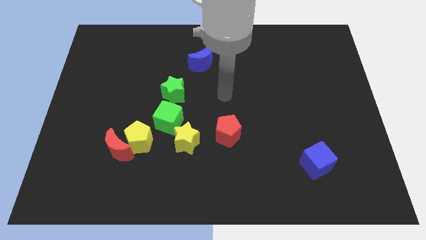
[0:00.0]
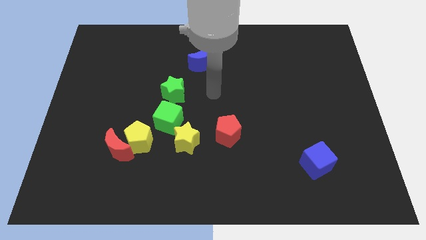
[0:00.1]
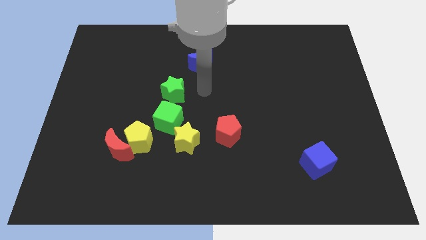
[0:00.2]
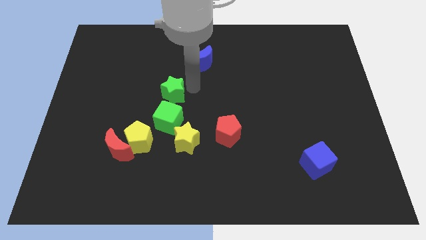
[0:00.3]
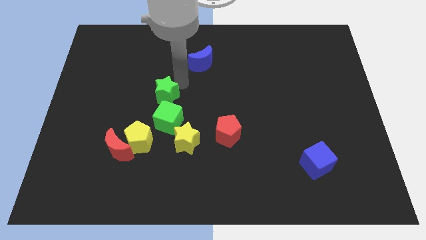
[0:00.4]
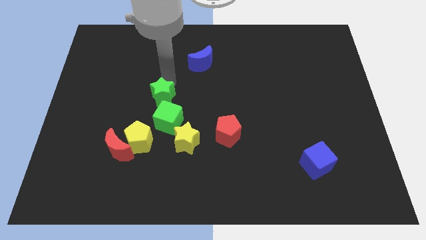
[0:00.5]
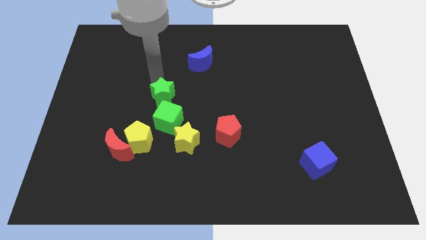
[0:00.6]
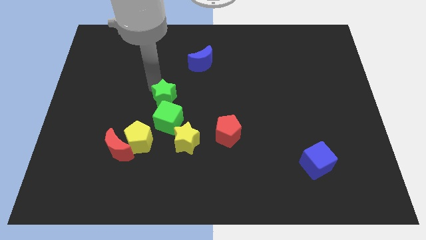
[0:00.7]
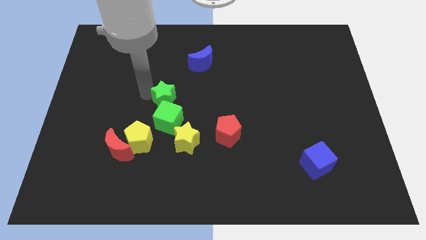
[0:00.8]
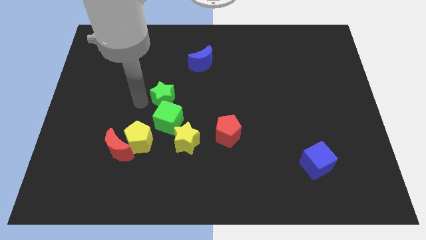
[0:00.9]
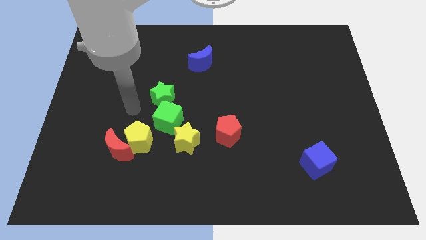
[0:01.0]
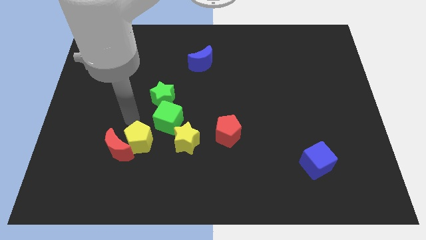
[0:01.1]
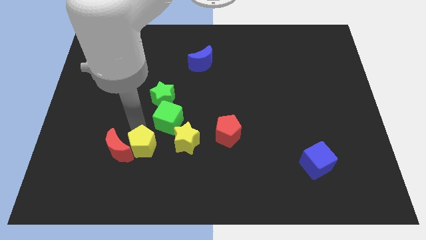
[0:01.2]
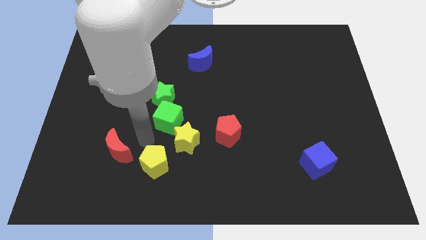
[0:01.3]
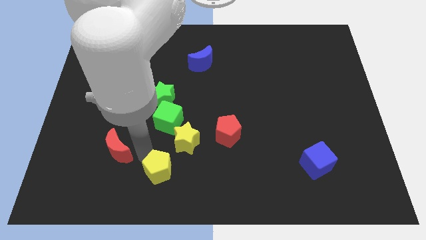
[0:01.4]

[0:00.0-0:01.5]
separate the red moon from the yellow pentagon

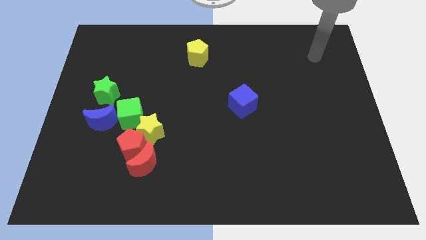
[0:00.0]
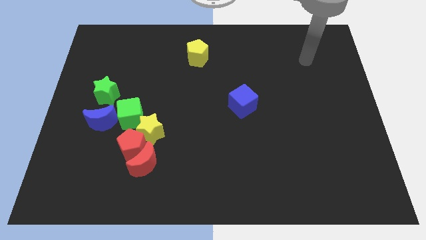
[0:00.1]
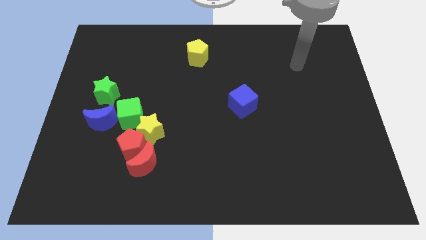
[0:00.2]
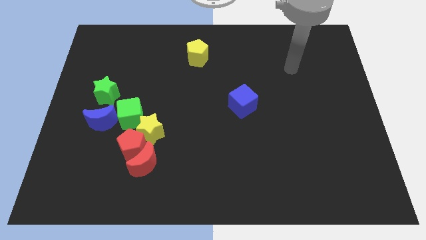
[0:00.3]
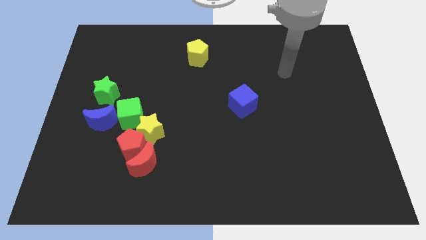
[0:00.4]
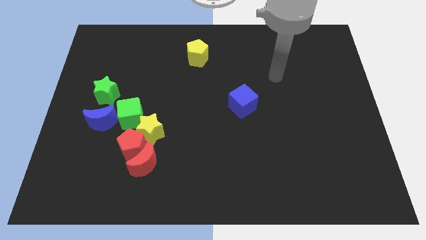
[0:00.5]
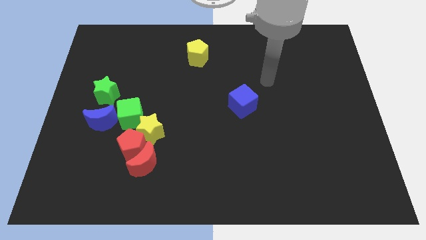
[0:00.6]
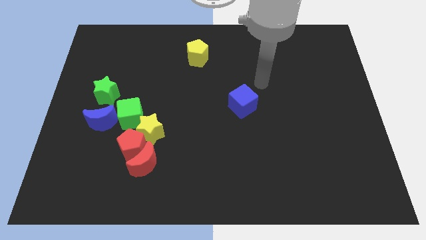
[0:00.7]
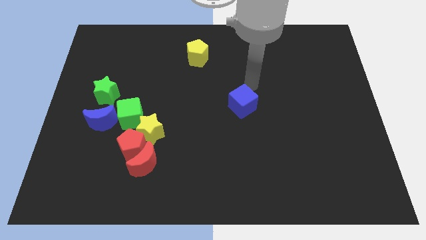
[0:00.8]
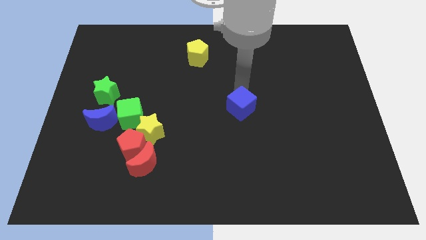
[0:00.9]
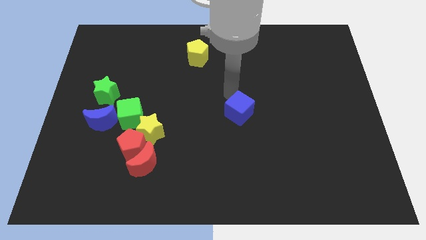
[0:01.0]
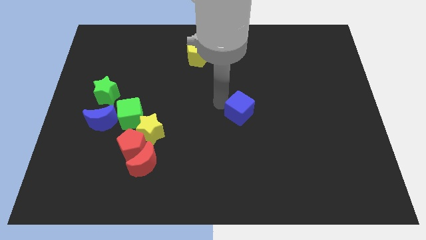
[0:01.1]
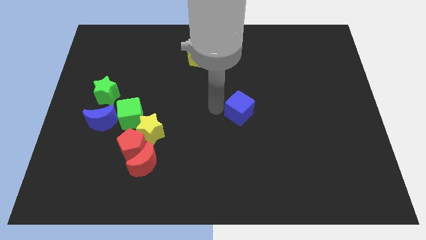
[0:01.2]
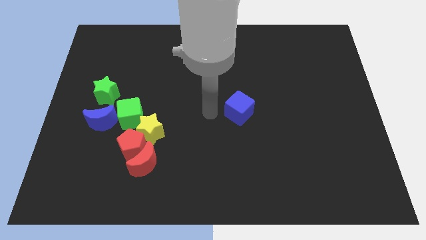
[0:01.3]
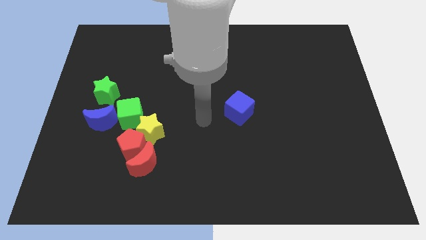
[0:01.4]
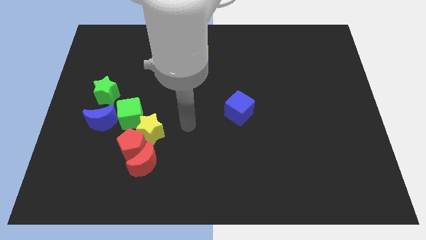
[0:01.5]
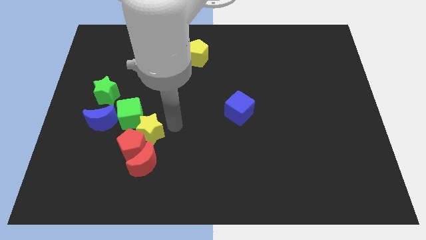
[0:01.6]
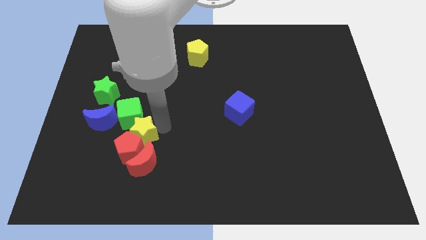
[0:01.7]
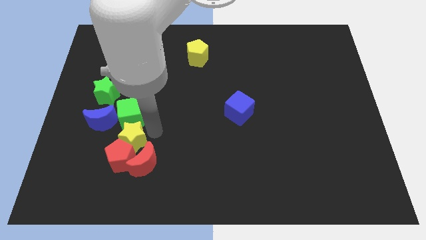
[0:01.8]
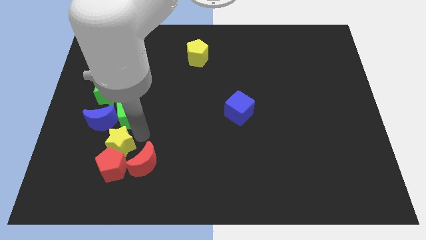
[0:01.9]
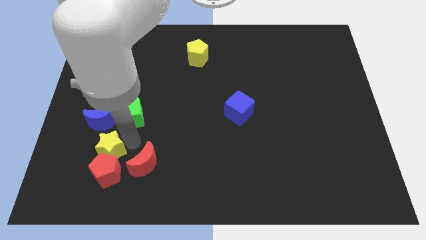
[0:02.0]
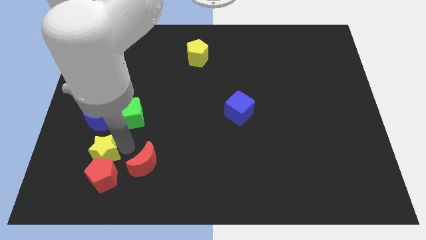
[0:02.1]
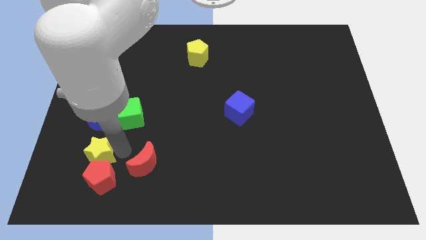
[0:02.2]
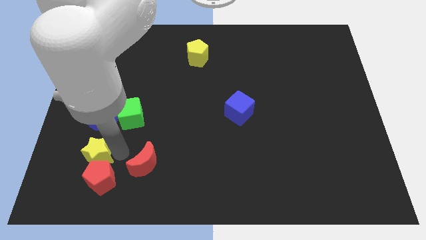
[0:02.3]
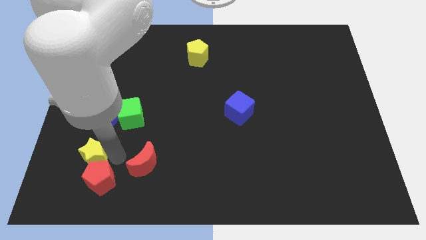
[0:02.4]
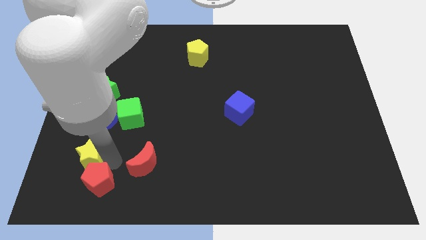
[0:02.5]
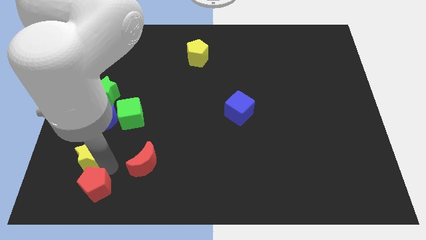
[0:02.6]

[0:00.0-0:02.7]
separate the red pentagon from the group of blocks

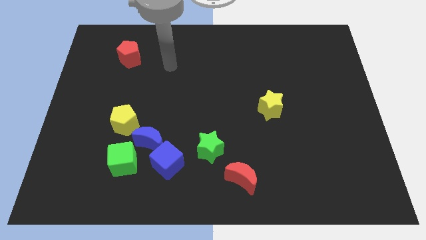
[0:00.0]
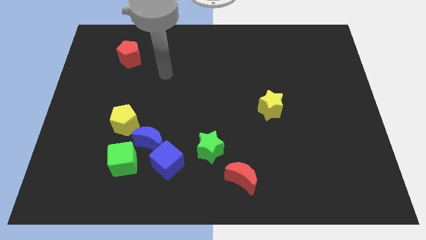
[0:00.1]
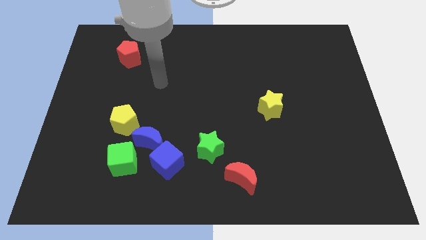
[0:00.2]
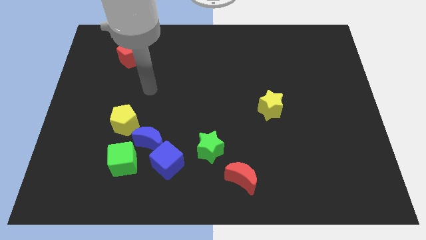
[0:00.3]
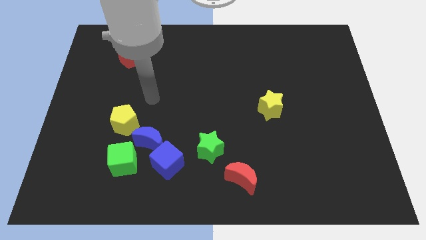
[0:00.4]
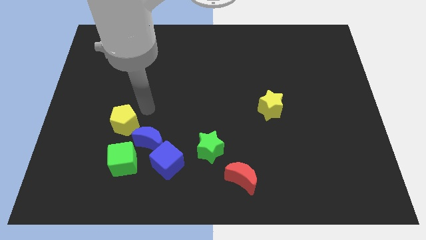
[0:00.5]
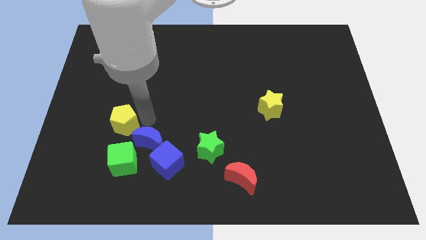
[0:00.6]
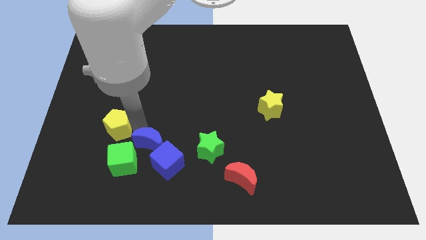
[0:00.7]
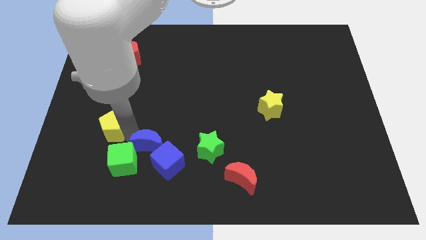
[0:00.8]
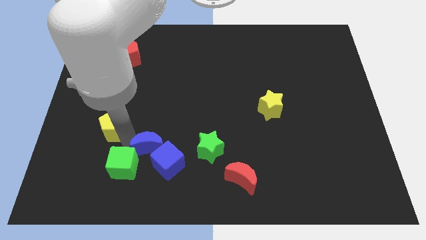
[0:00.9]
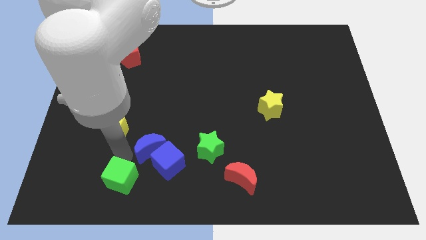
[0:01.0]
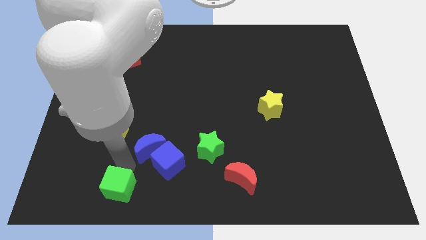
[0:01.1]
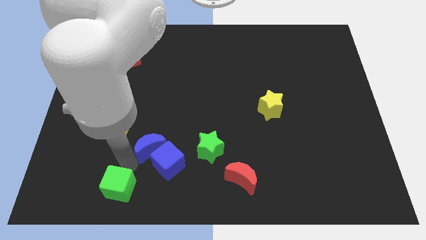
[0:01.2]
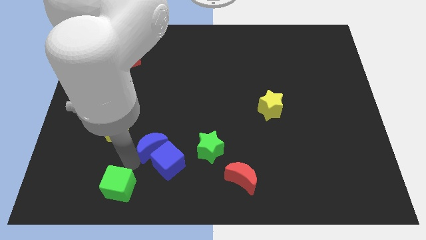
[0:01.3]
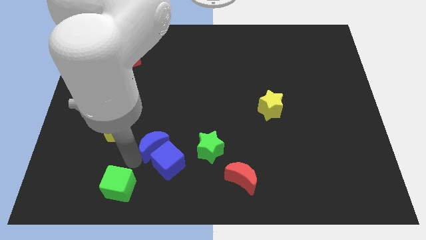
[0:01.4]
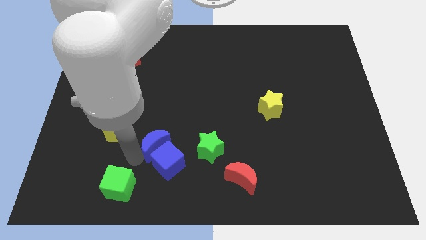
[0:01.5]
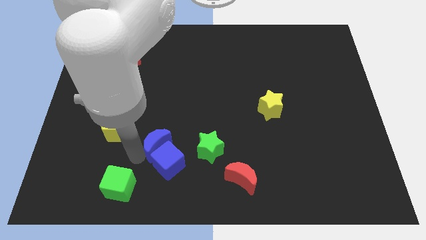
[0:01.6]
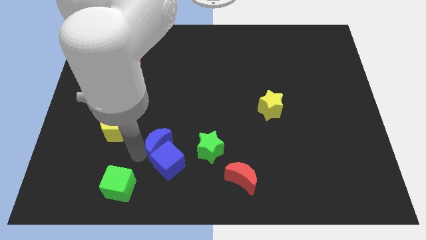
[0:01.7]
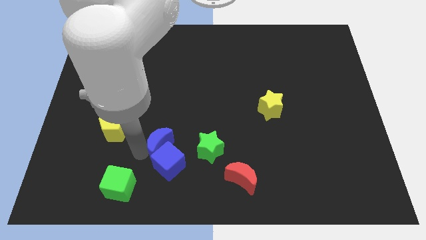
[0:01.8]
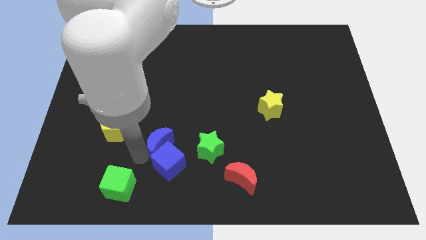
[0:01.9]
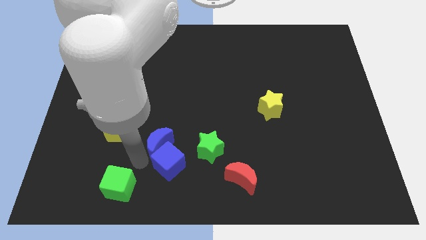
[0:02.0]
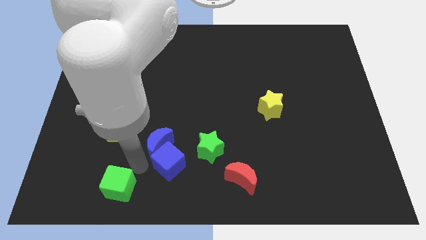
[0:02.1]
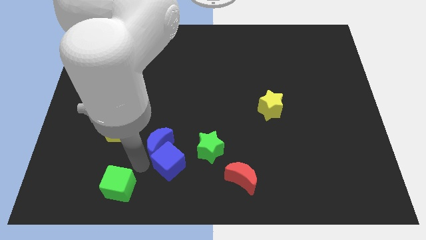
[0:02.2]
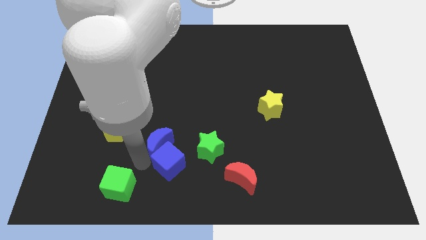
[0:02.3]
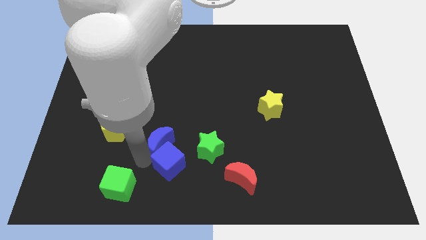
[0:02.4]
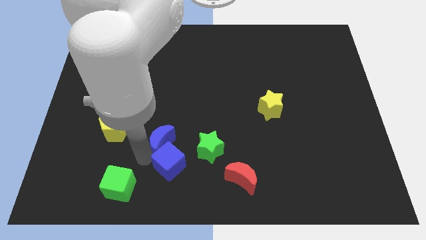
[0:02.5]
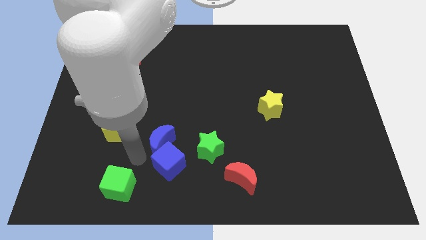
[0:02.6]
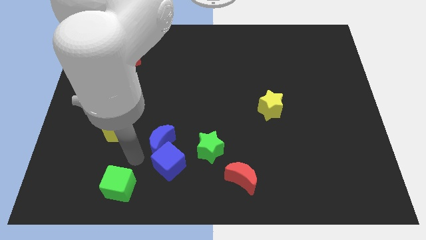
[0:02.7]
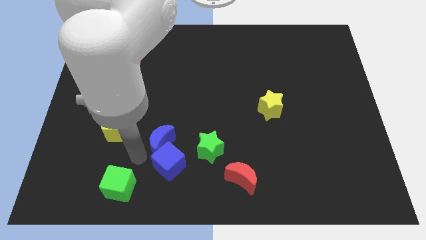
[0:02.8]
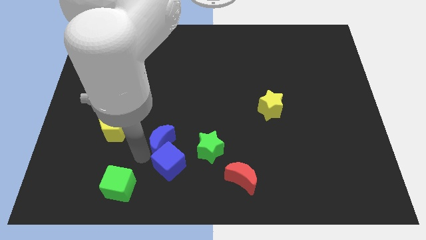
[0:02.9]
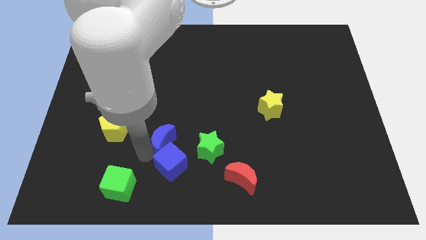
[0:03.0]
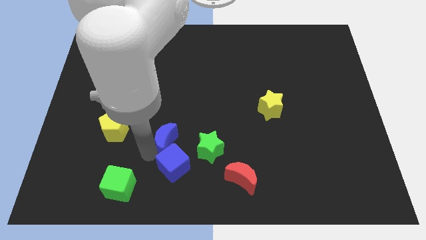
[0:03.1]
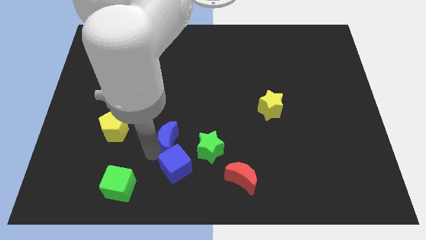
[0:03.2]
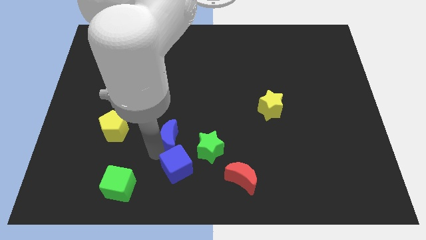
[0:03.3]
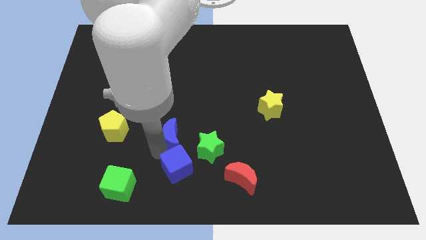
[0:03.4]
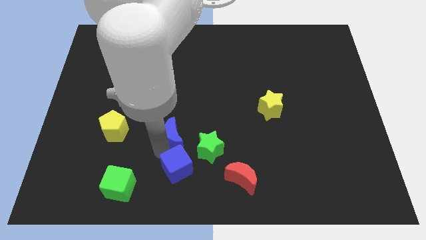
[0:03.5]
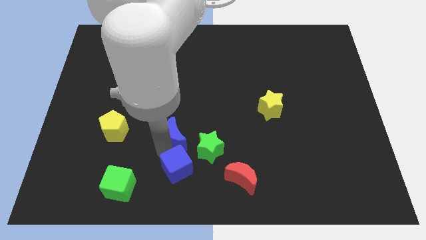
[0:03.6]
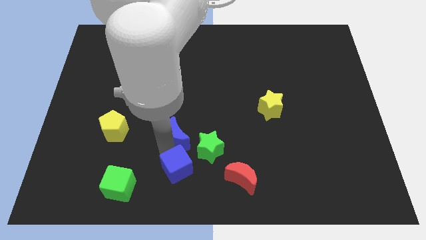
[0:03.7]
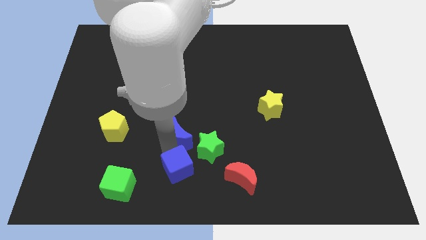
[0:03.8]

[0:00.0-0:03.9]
pull the blue moon apart from the group of blocks

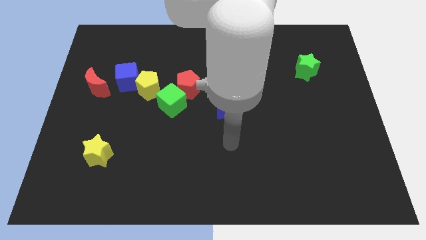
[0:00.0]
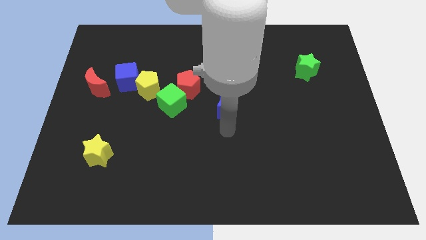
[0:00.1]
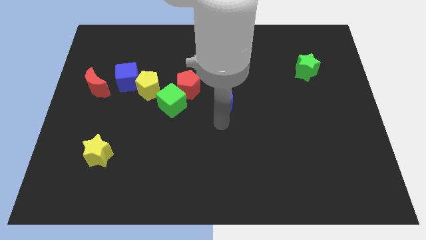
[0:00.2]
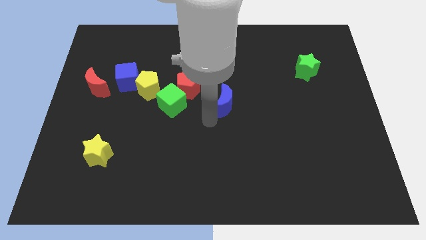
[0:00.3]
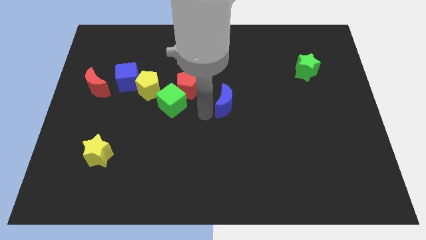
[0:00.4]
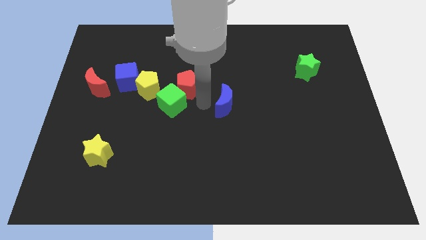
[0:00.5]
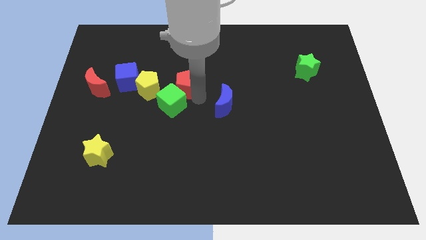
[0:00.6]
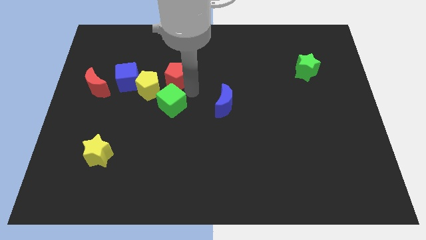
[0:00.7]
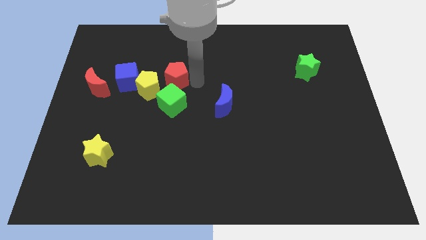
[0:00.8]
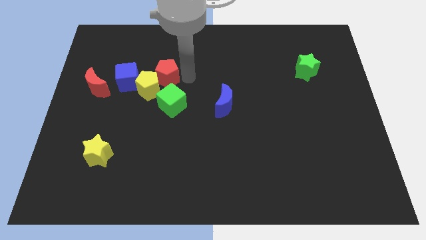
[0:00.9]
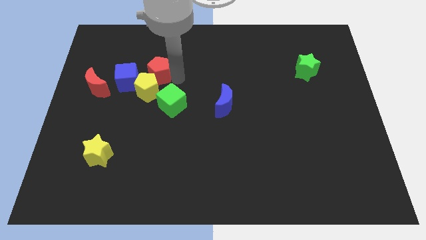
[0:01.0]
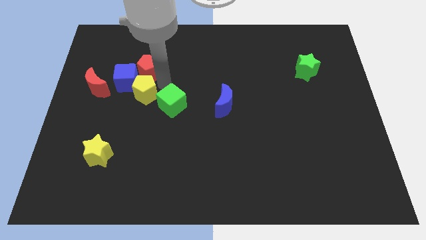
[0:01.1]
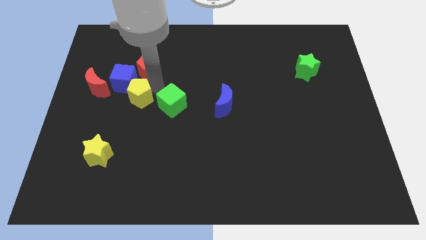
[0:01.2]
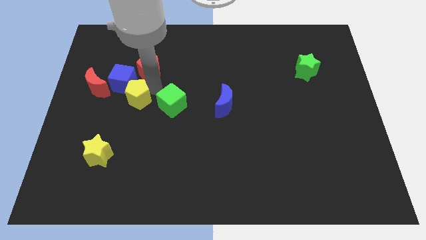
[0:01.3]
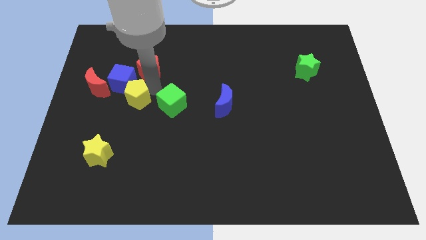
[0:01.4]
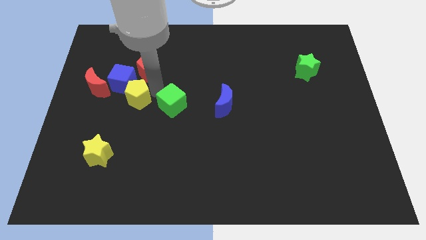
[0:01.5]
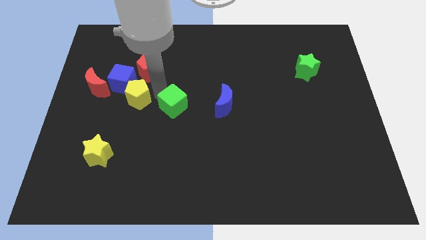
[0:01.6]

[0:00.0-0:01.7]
move the green cube away from the red pentagon and yellow pentagon
